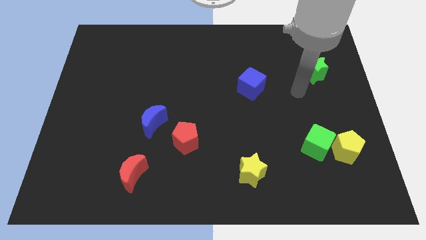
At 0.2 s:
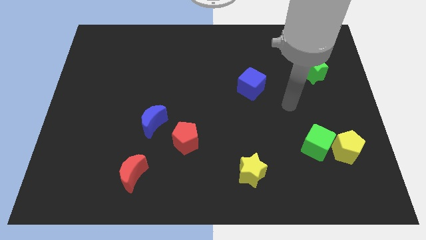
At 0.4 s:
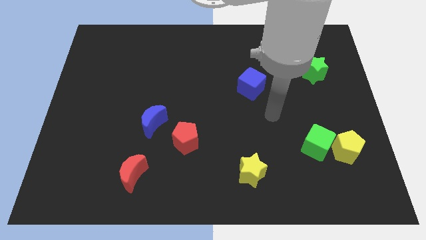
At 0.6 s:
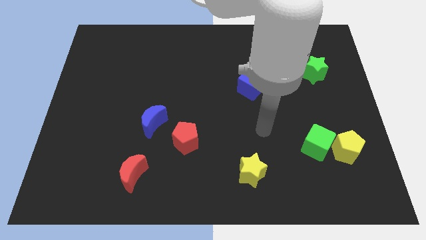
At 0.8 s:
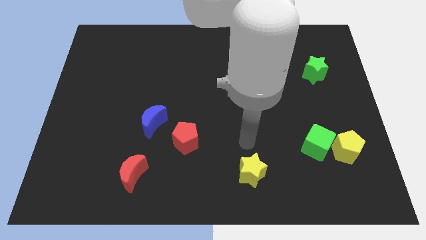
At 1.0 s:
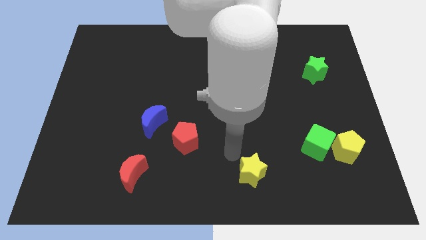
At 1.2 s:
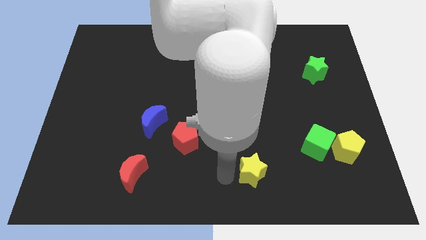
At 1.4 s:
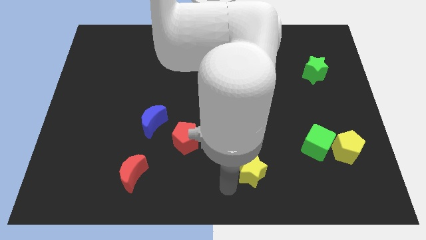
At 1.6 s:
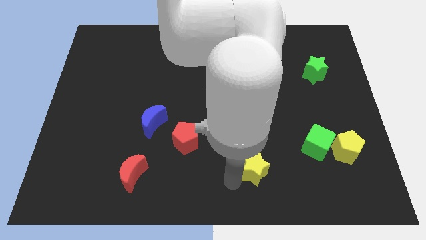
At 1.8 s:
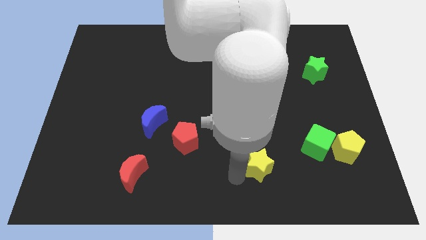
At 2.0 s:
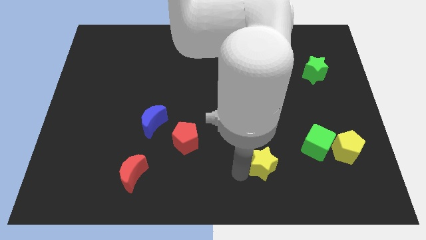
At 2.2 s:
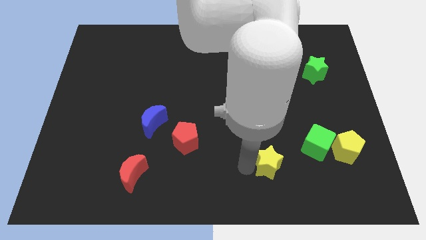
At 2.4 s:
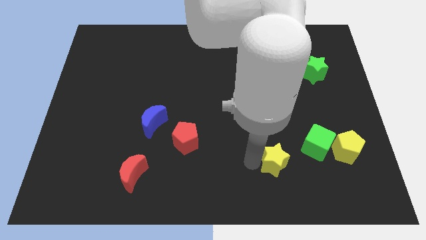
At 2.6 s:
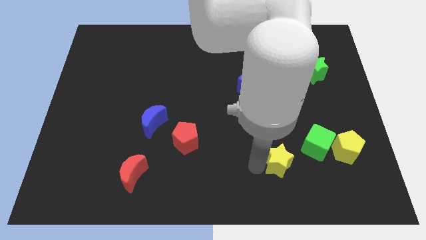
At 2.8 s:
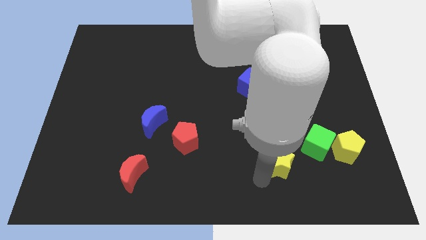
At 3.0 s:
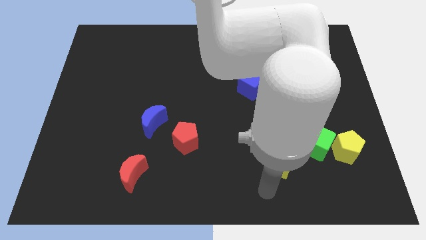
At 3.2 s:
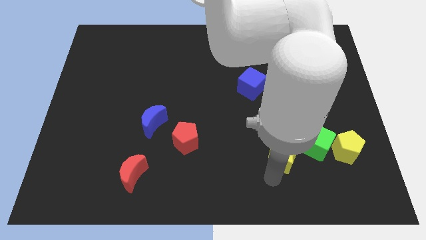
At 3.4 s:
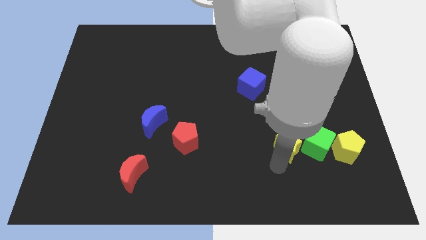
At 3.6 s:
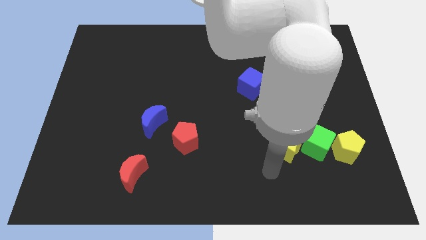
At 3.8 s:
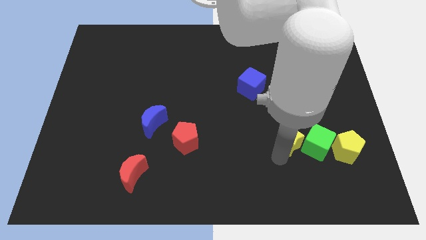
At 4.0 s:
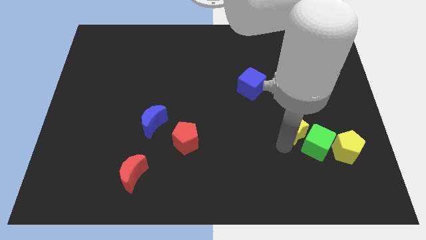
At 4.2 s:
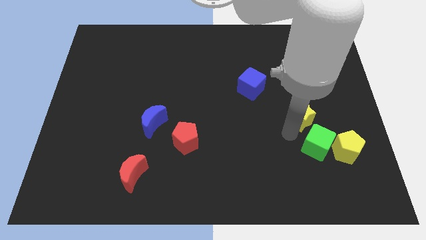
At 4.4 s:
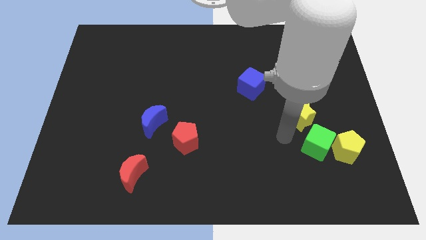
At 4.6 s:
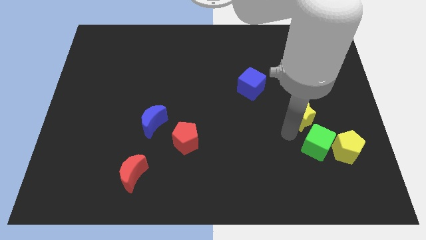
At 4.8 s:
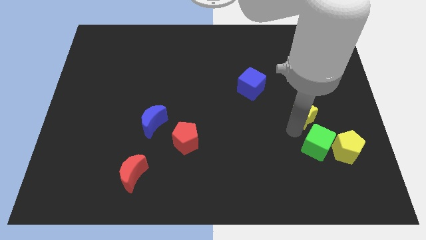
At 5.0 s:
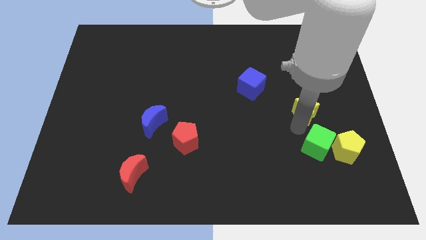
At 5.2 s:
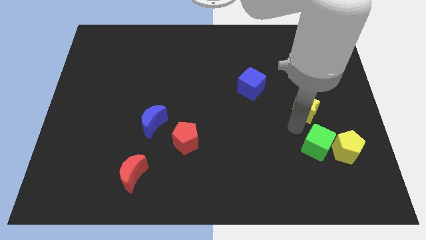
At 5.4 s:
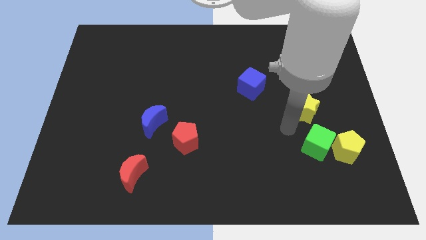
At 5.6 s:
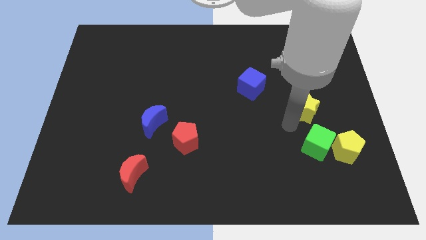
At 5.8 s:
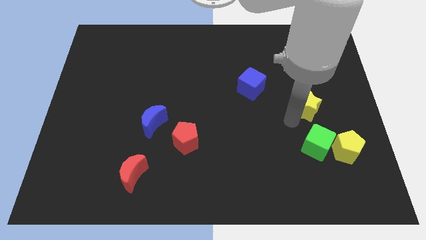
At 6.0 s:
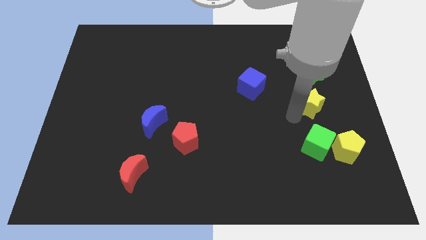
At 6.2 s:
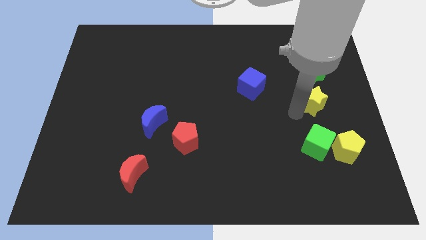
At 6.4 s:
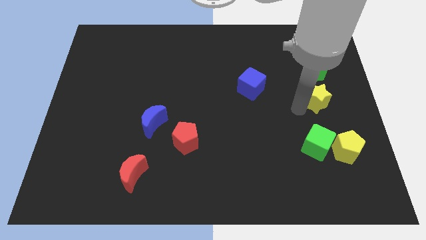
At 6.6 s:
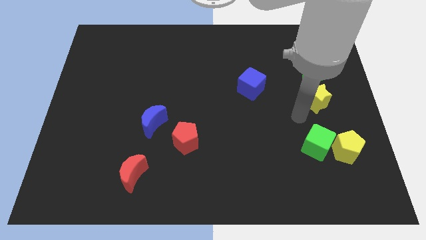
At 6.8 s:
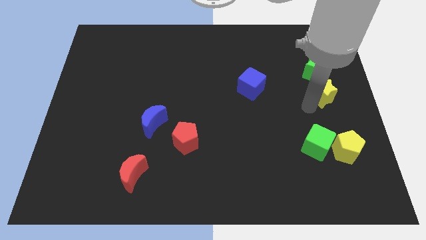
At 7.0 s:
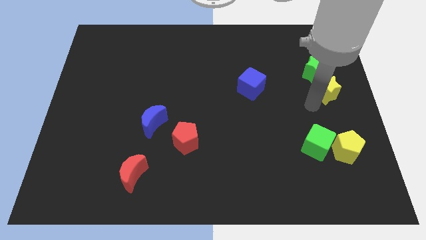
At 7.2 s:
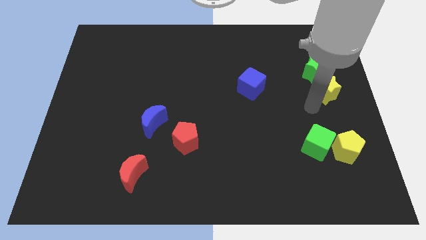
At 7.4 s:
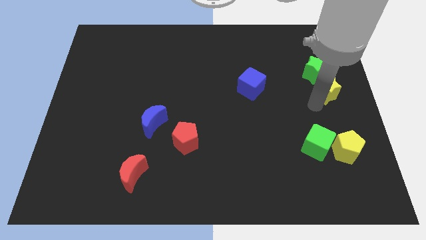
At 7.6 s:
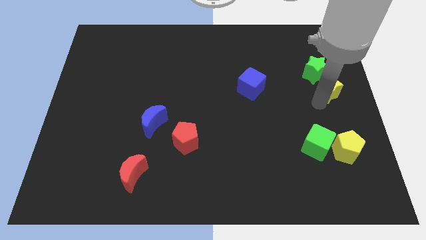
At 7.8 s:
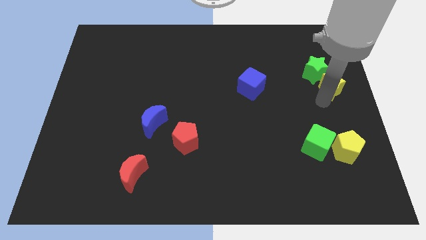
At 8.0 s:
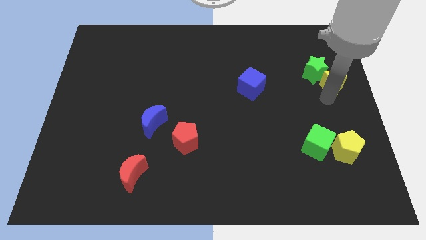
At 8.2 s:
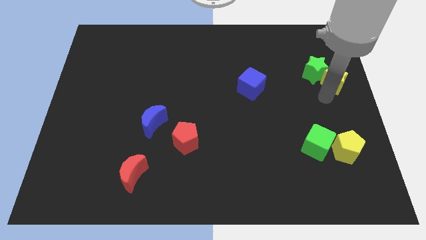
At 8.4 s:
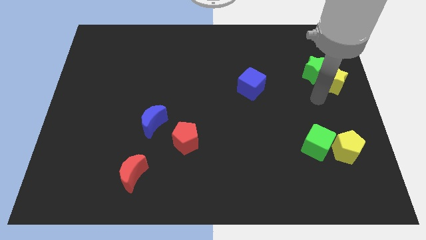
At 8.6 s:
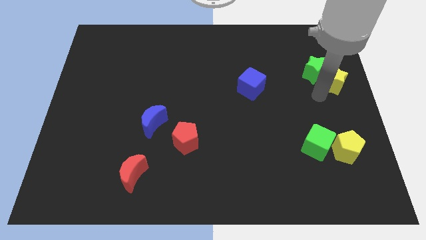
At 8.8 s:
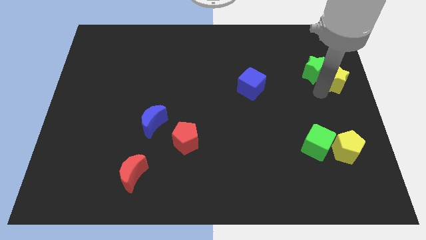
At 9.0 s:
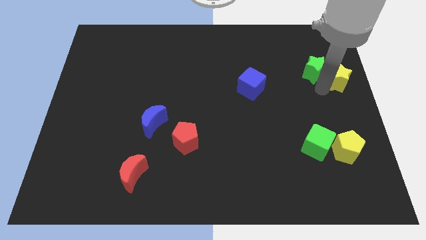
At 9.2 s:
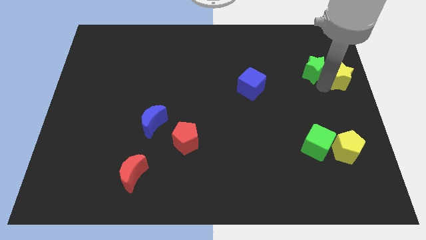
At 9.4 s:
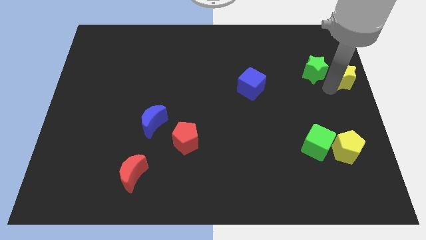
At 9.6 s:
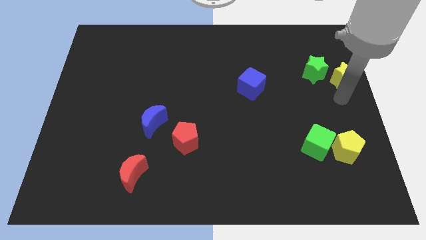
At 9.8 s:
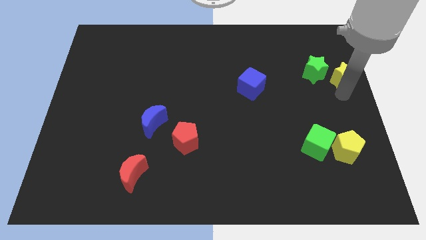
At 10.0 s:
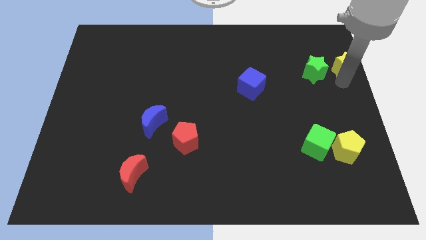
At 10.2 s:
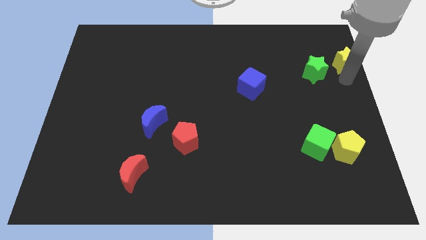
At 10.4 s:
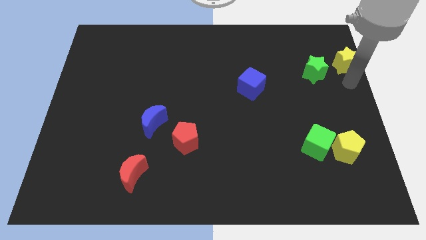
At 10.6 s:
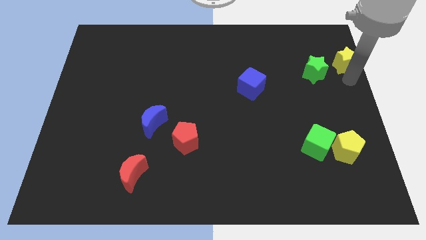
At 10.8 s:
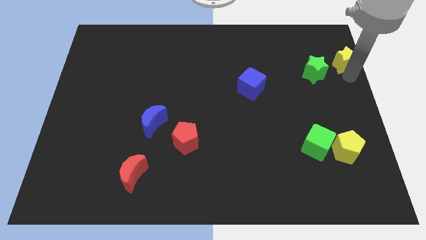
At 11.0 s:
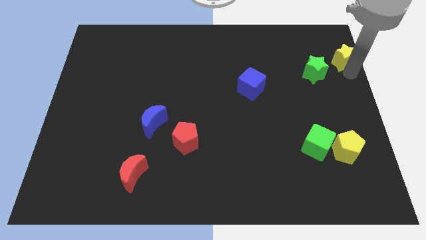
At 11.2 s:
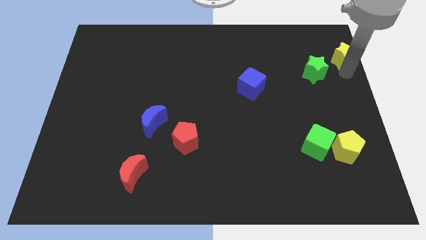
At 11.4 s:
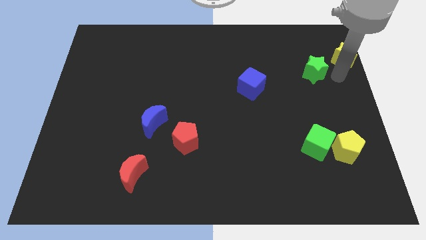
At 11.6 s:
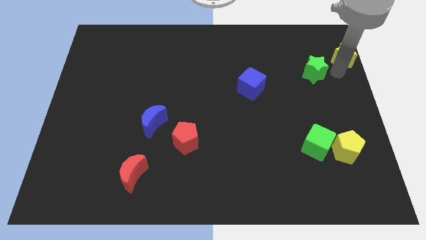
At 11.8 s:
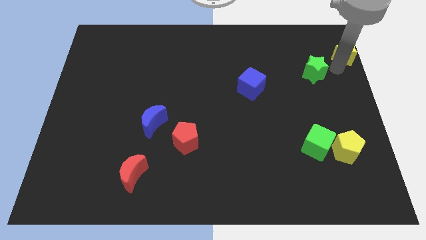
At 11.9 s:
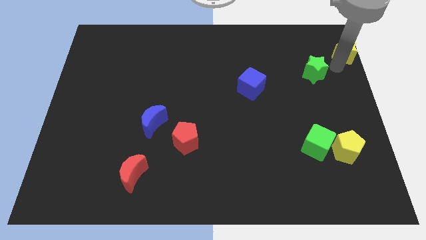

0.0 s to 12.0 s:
push the yellow star to the top right
